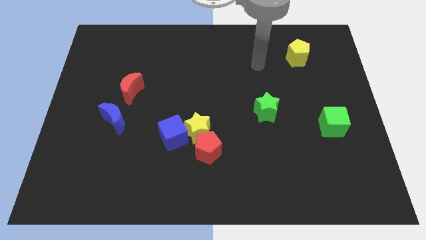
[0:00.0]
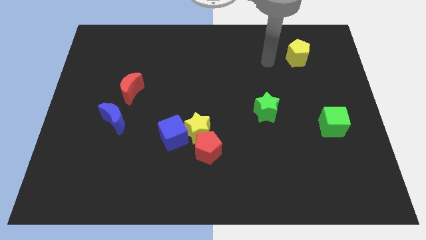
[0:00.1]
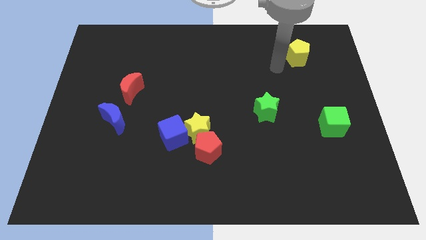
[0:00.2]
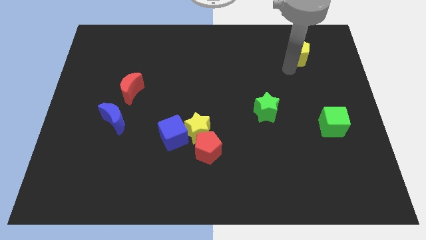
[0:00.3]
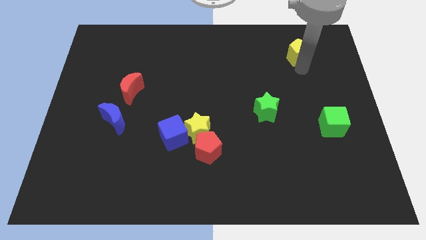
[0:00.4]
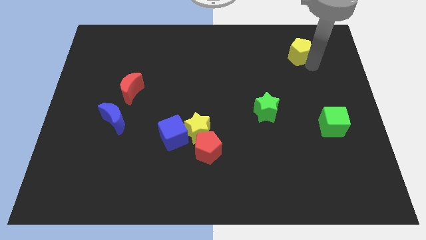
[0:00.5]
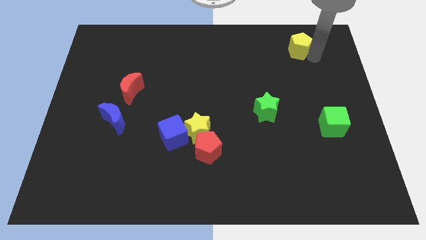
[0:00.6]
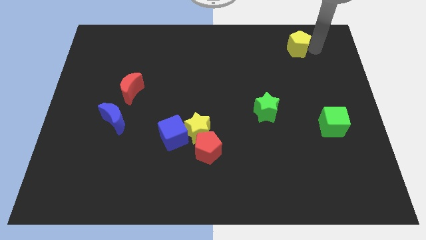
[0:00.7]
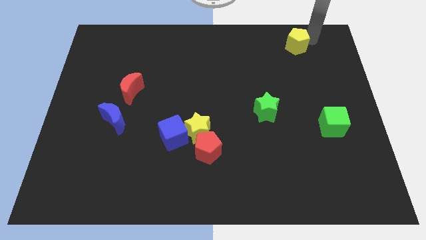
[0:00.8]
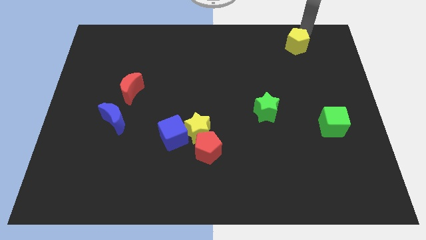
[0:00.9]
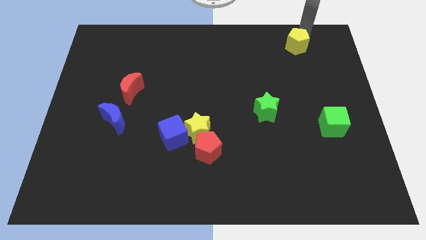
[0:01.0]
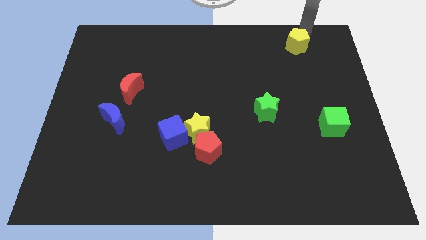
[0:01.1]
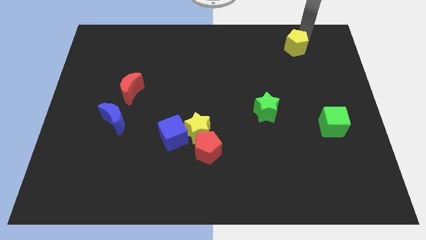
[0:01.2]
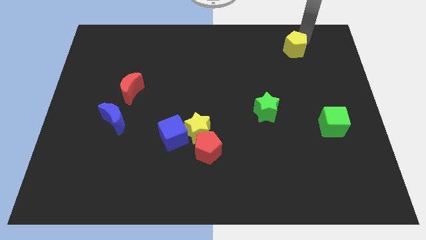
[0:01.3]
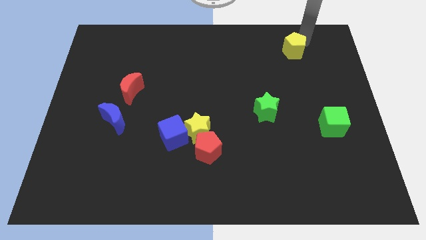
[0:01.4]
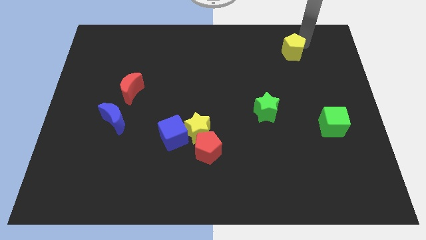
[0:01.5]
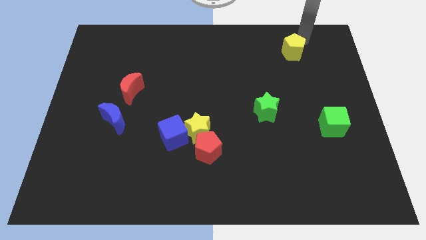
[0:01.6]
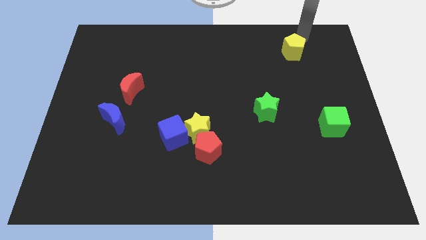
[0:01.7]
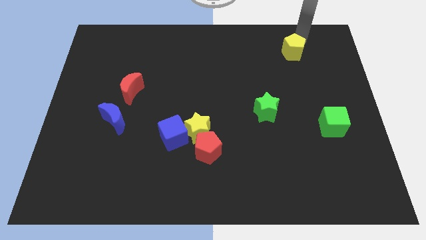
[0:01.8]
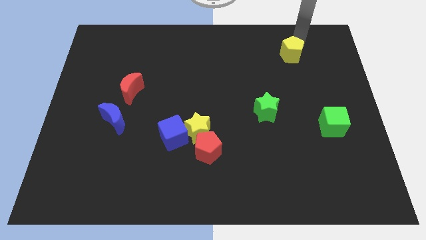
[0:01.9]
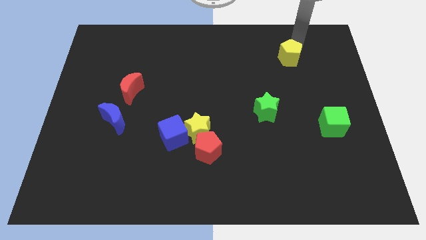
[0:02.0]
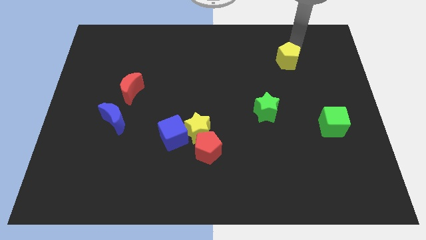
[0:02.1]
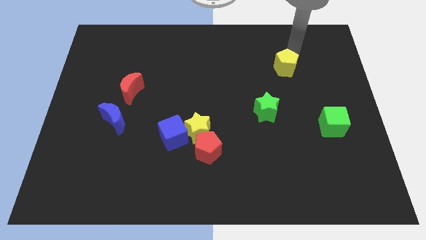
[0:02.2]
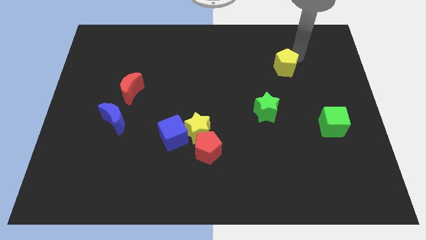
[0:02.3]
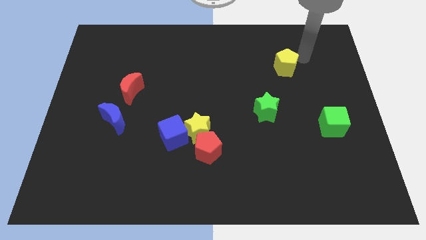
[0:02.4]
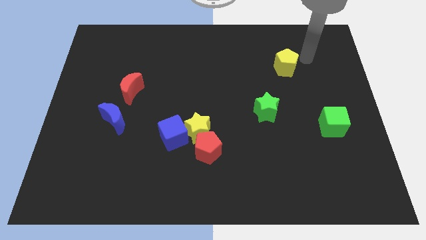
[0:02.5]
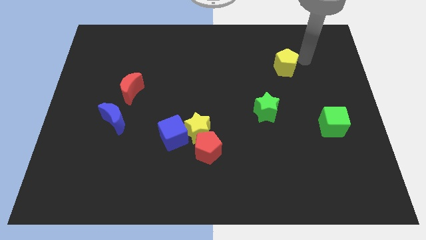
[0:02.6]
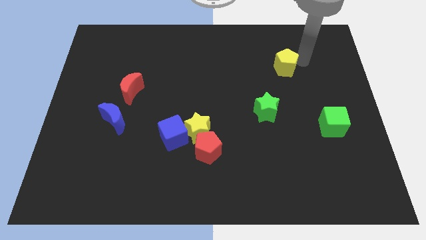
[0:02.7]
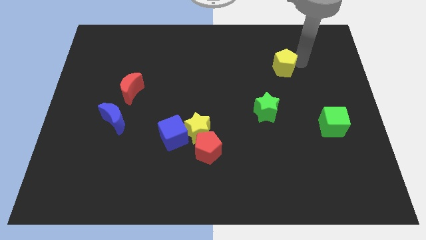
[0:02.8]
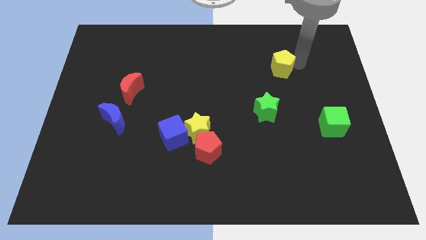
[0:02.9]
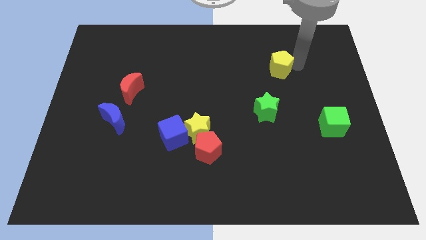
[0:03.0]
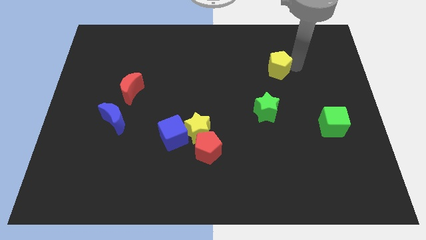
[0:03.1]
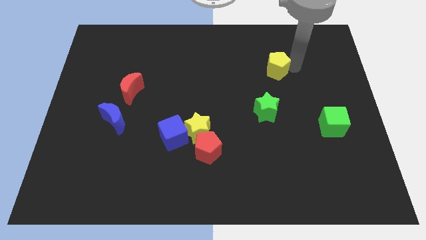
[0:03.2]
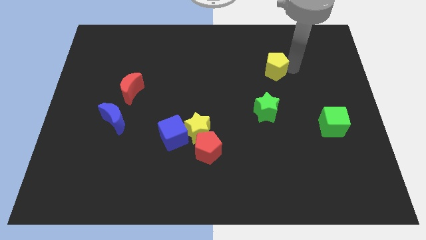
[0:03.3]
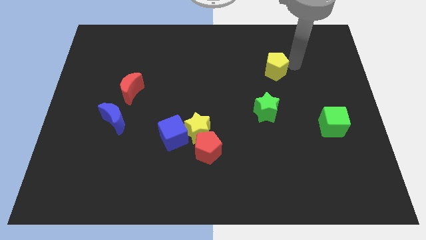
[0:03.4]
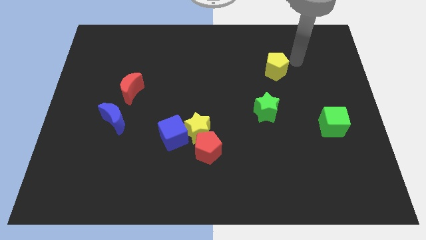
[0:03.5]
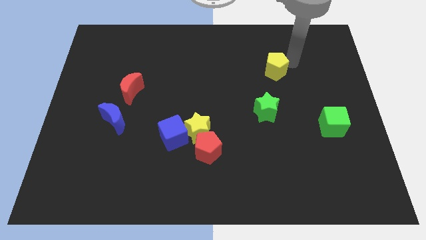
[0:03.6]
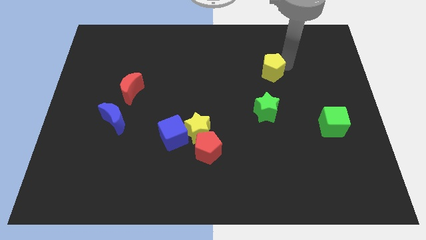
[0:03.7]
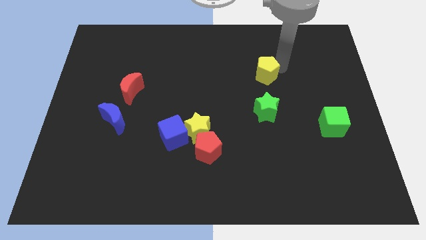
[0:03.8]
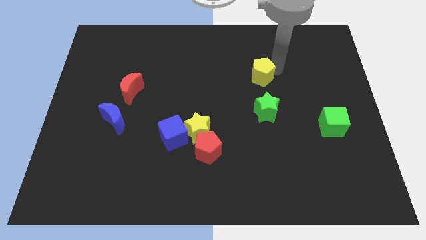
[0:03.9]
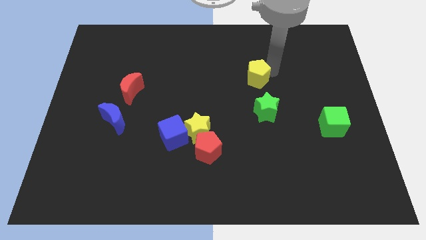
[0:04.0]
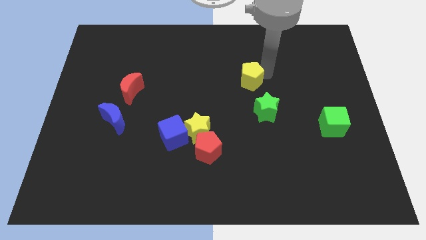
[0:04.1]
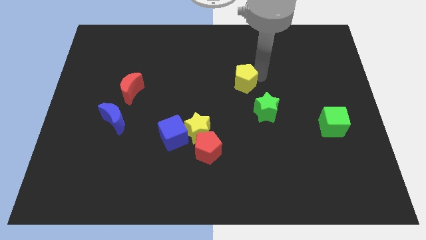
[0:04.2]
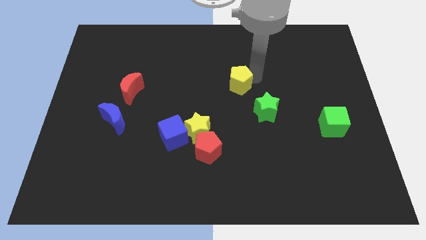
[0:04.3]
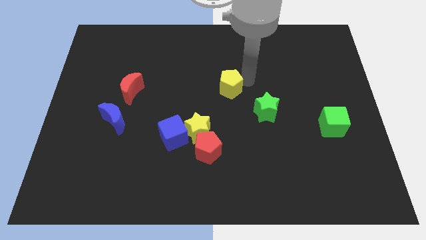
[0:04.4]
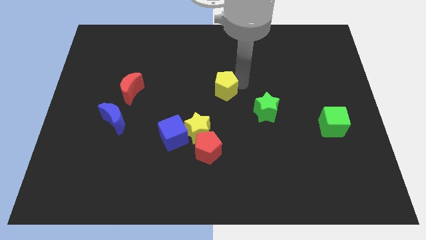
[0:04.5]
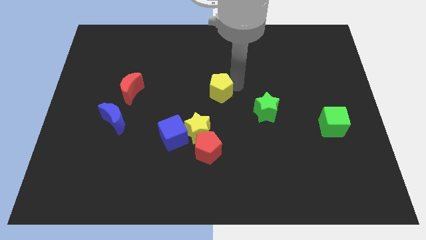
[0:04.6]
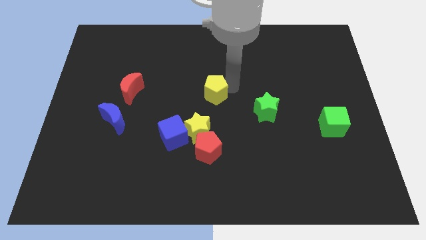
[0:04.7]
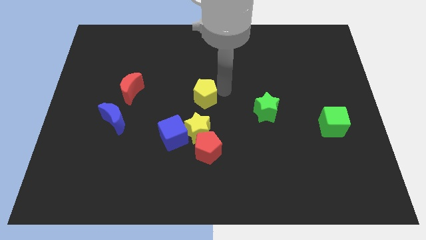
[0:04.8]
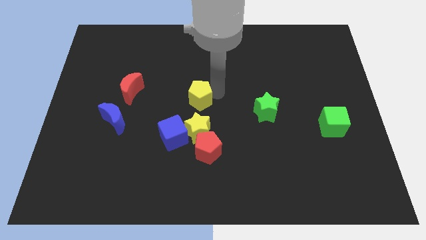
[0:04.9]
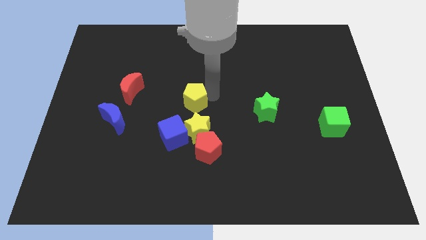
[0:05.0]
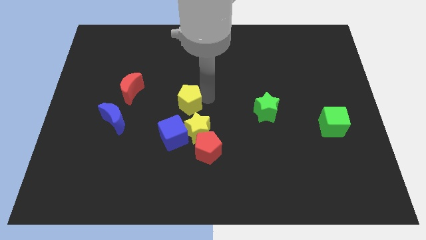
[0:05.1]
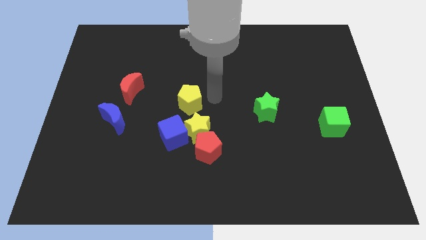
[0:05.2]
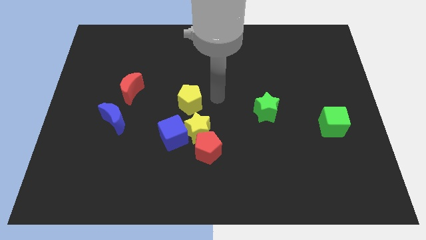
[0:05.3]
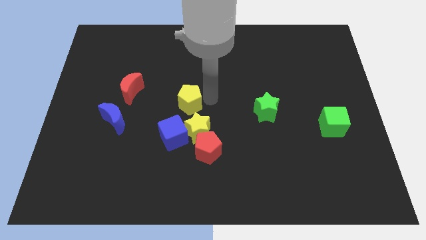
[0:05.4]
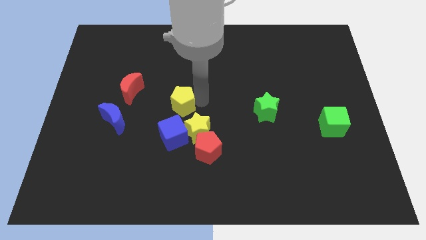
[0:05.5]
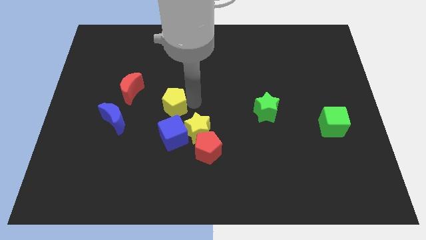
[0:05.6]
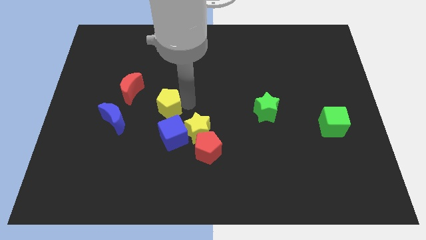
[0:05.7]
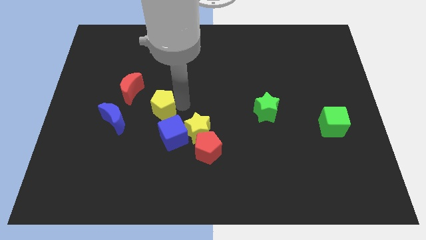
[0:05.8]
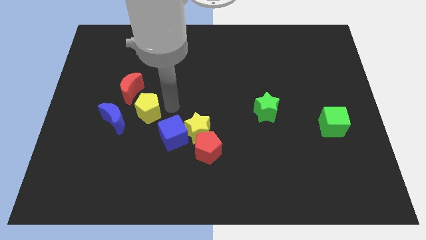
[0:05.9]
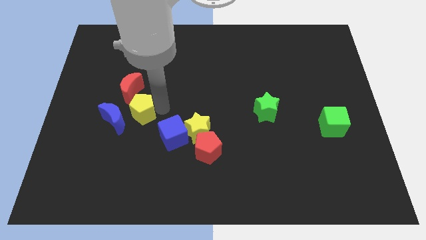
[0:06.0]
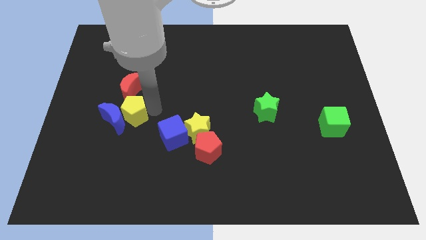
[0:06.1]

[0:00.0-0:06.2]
move the yellow pentagon close to the blue moon
